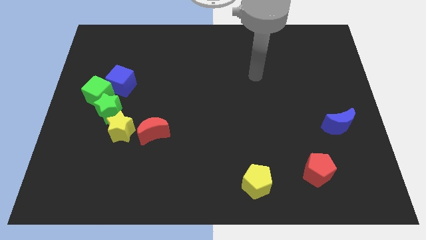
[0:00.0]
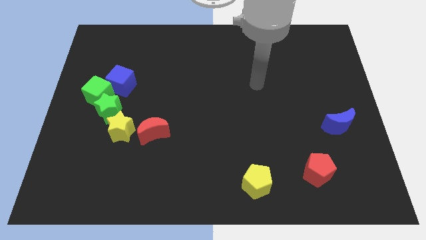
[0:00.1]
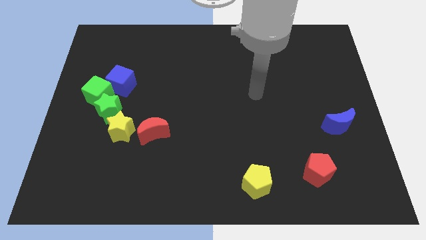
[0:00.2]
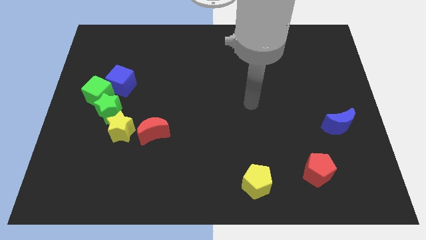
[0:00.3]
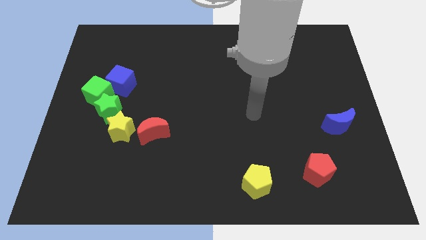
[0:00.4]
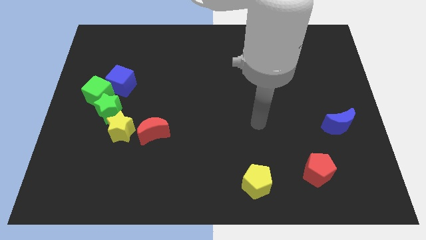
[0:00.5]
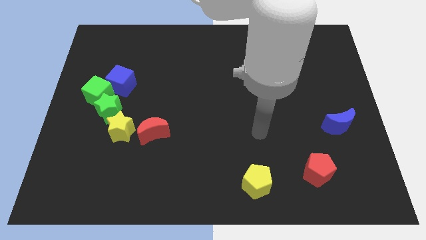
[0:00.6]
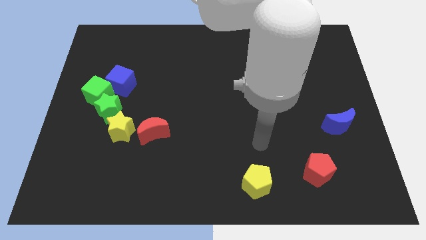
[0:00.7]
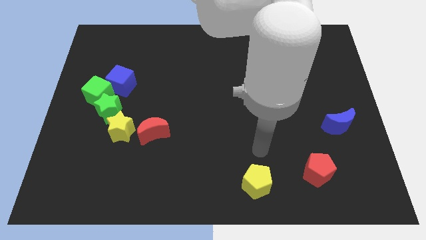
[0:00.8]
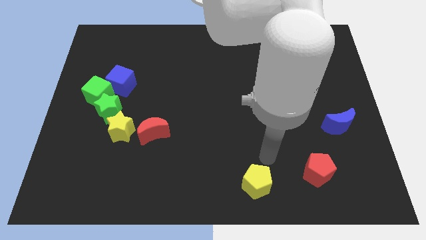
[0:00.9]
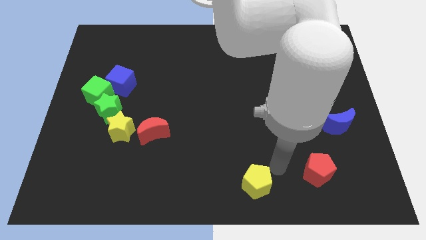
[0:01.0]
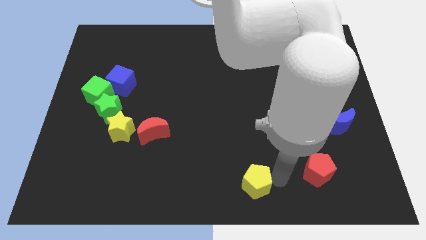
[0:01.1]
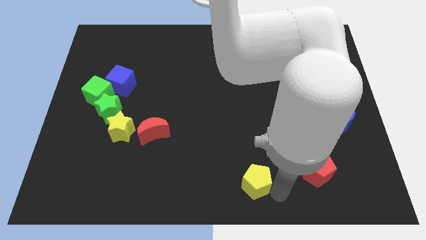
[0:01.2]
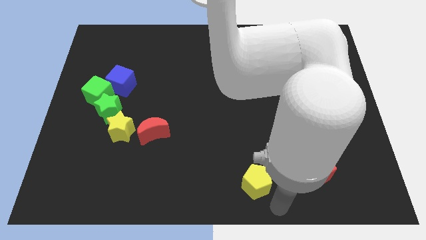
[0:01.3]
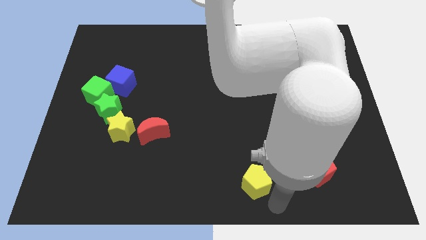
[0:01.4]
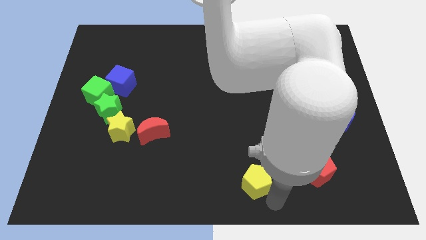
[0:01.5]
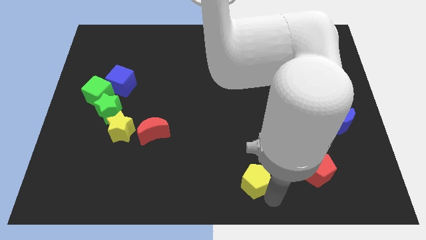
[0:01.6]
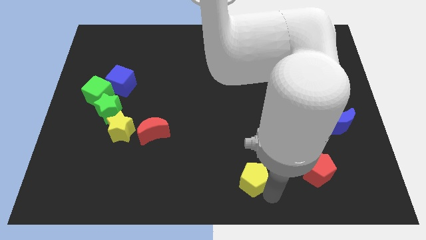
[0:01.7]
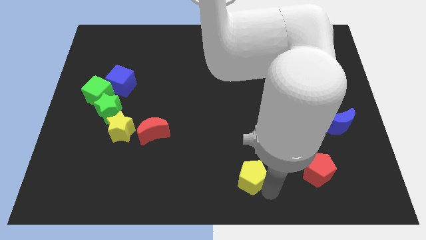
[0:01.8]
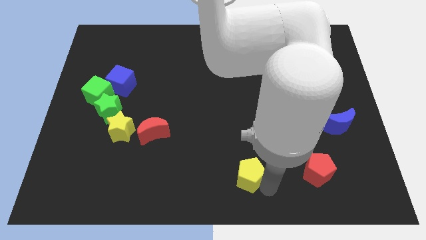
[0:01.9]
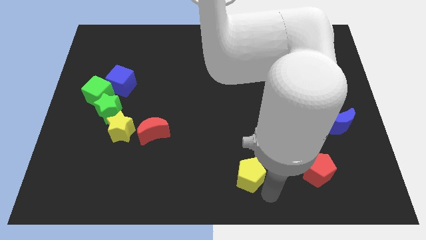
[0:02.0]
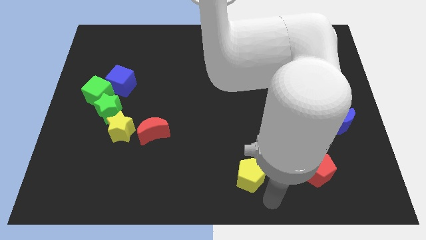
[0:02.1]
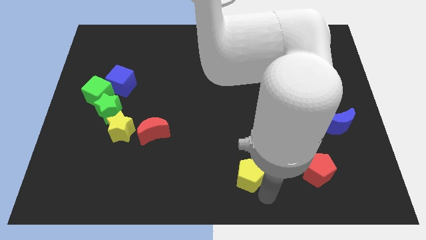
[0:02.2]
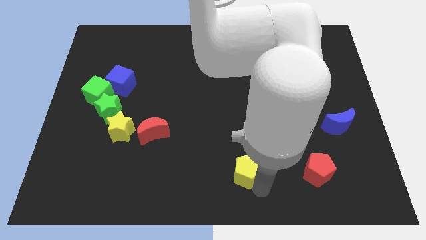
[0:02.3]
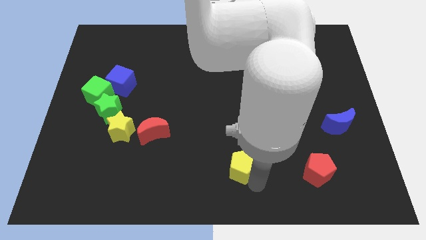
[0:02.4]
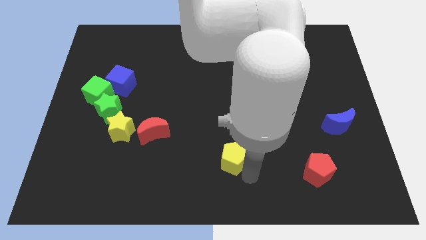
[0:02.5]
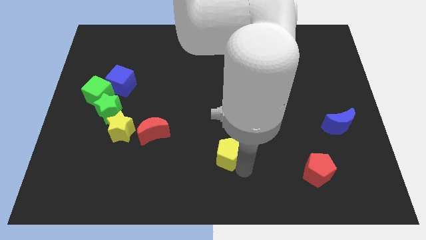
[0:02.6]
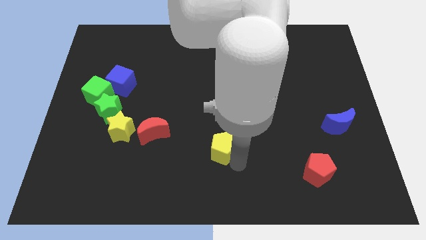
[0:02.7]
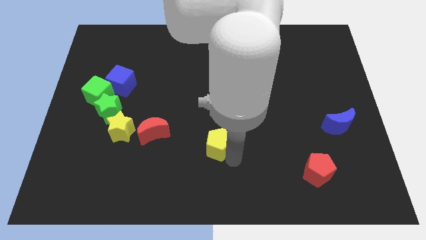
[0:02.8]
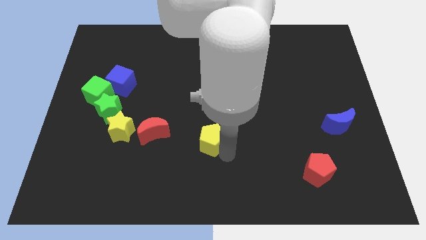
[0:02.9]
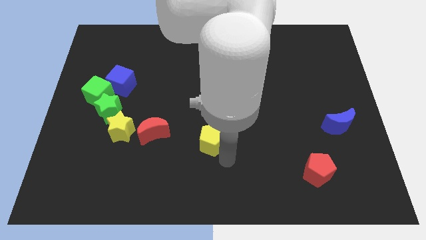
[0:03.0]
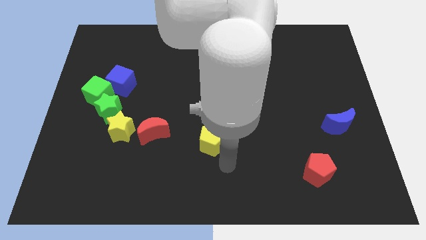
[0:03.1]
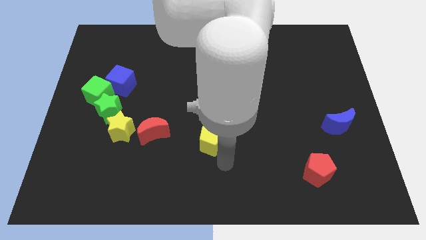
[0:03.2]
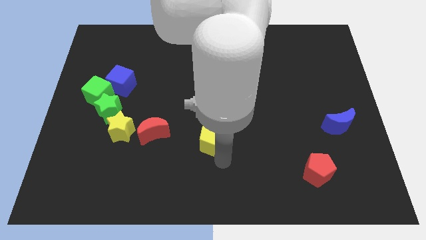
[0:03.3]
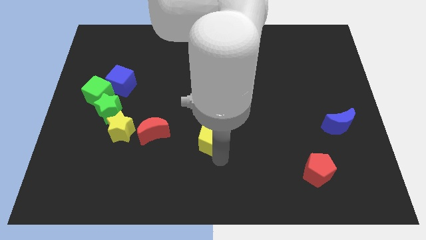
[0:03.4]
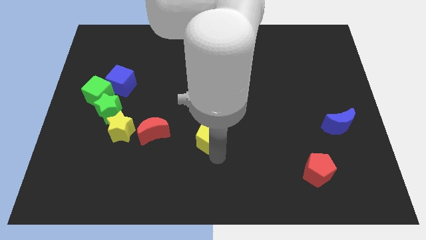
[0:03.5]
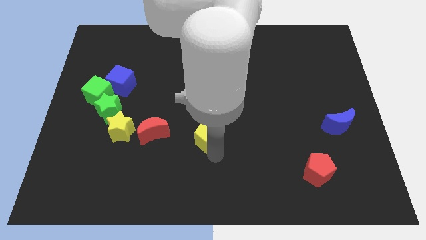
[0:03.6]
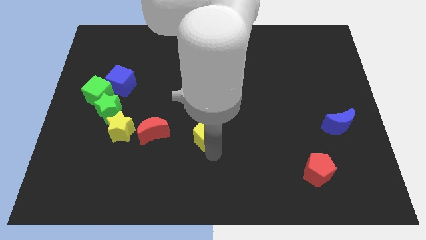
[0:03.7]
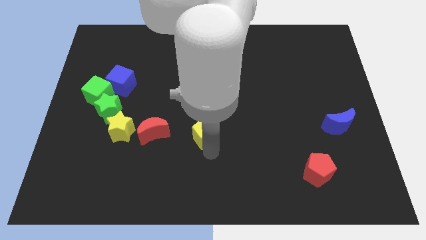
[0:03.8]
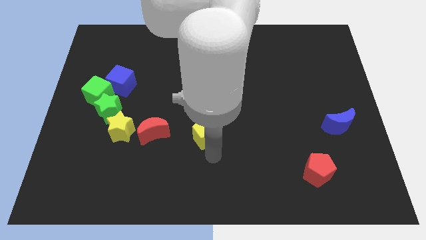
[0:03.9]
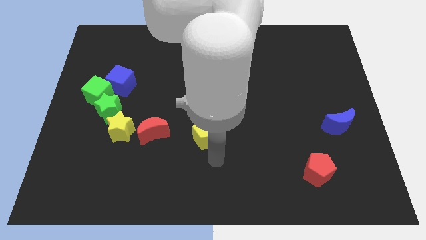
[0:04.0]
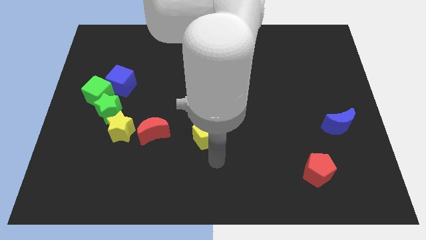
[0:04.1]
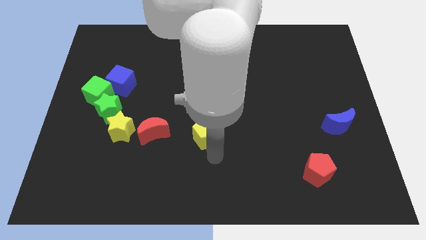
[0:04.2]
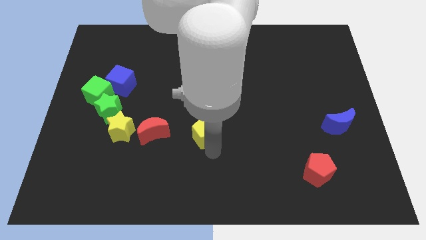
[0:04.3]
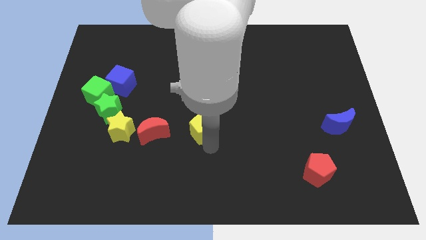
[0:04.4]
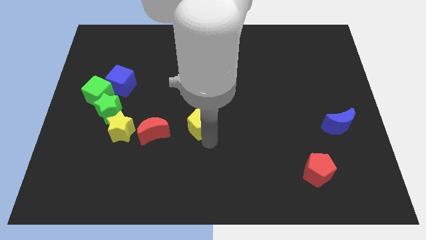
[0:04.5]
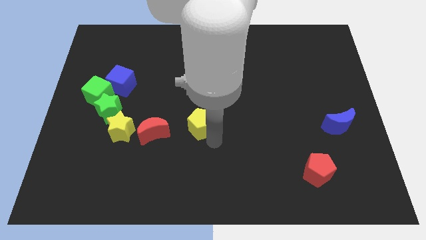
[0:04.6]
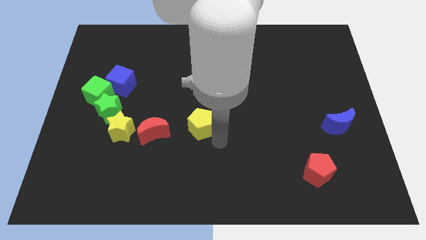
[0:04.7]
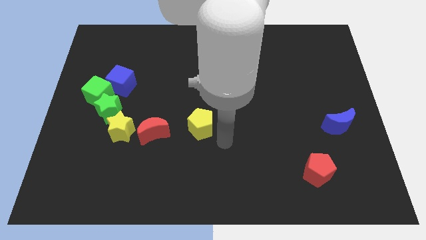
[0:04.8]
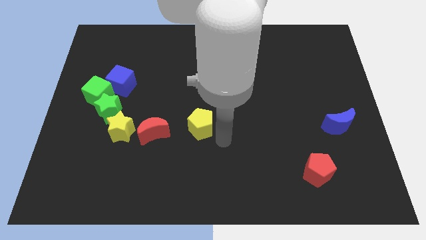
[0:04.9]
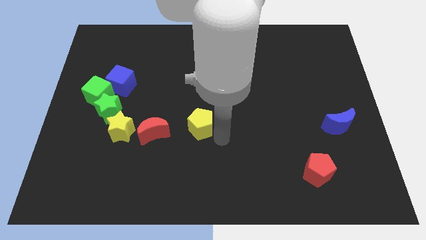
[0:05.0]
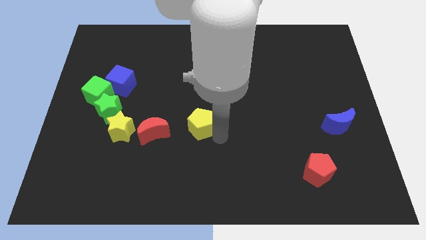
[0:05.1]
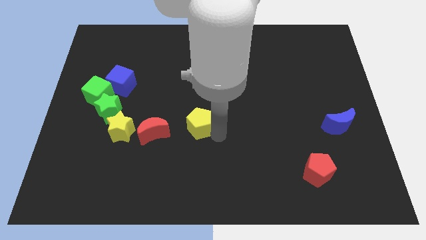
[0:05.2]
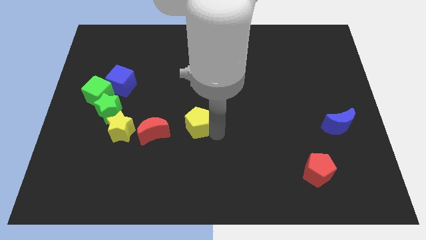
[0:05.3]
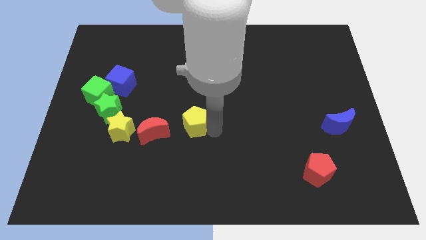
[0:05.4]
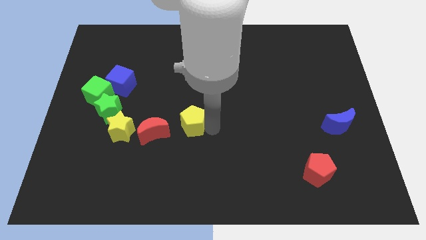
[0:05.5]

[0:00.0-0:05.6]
push the yellow pentagon up and to the left diagonally

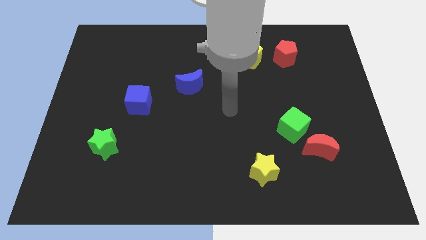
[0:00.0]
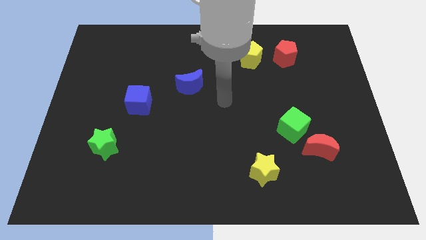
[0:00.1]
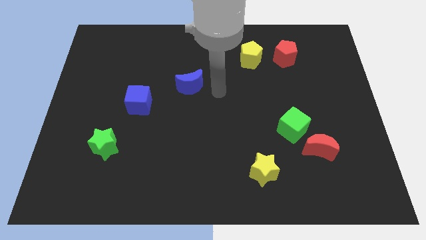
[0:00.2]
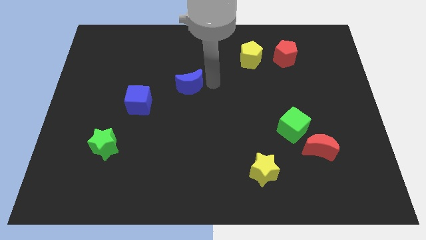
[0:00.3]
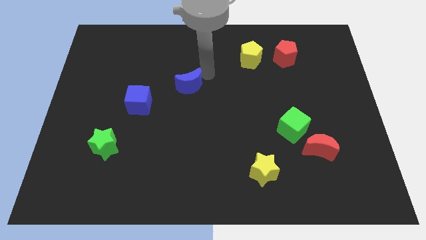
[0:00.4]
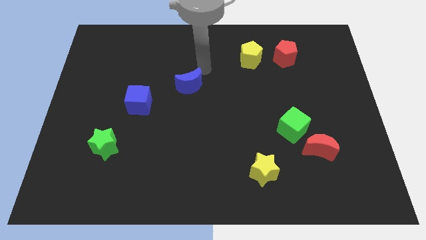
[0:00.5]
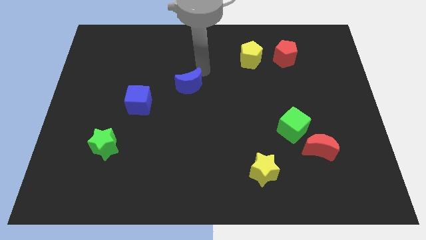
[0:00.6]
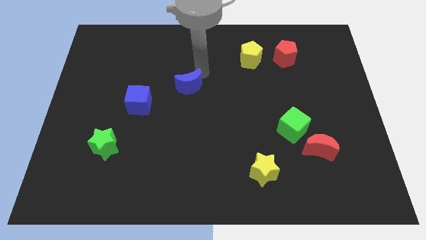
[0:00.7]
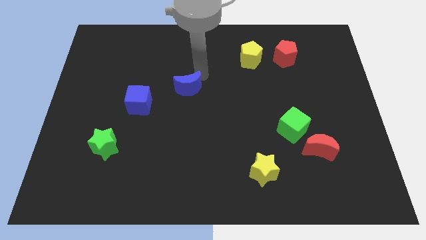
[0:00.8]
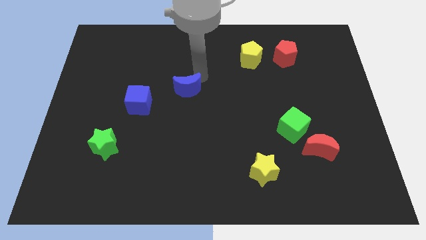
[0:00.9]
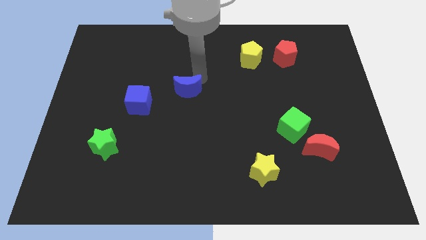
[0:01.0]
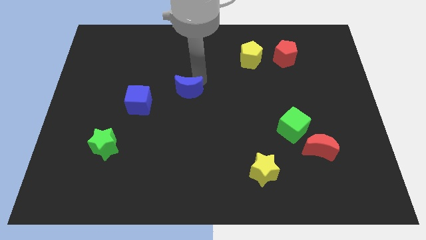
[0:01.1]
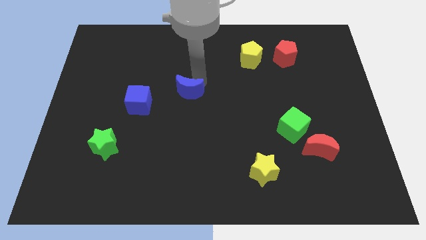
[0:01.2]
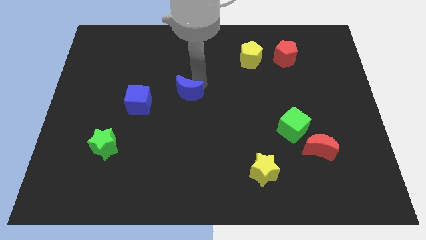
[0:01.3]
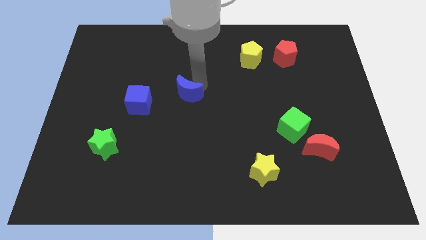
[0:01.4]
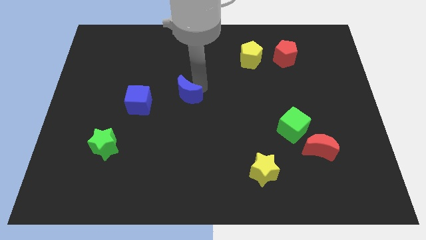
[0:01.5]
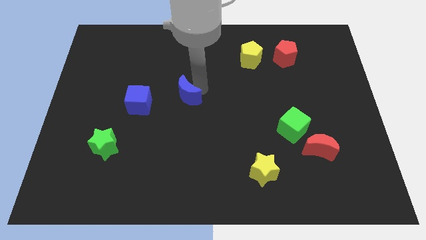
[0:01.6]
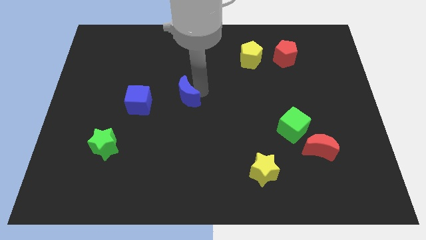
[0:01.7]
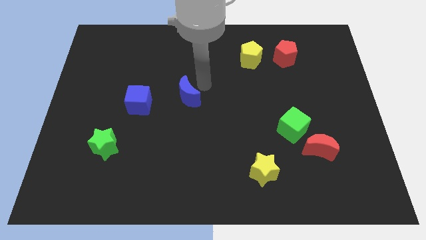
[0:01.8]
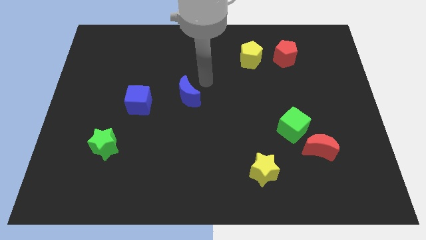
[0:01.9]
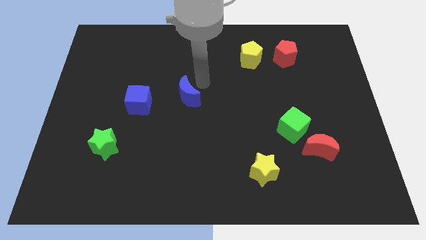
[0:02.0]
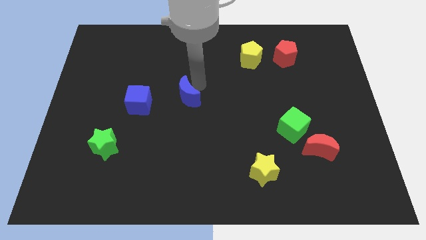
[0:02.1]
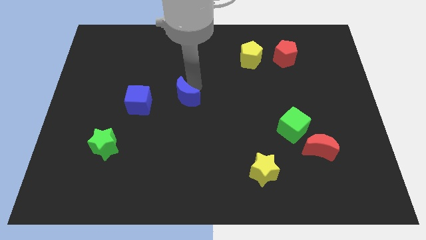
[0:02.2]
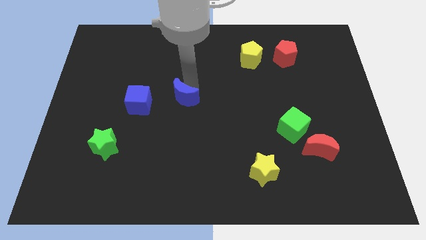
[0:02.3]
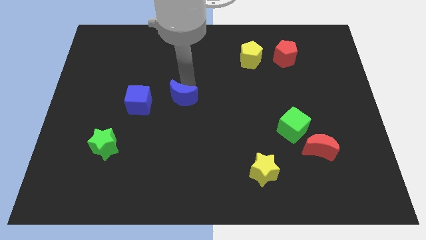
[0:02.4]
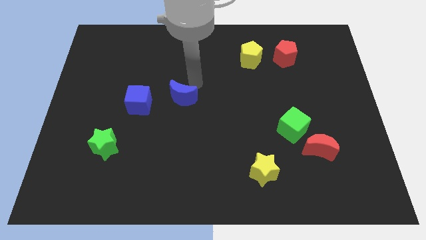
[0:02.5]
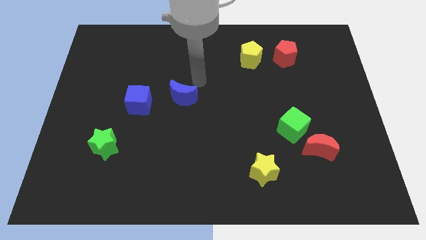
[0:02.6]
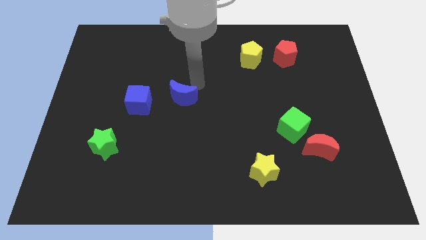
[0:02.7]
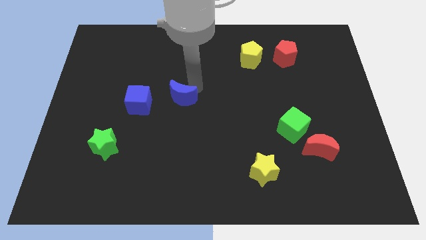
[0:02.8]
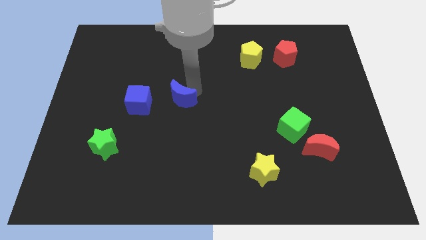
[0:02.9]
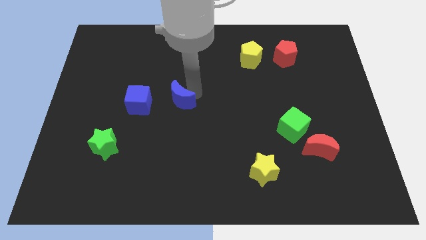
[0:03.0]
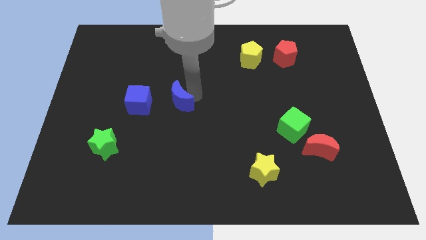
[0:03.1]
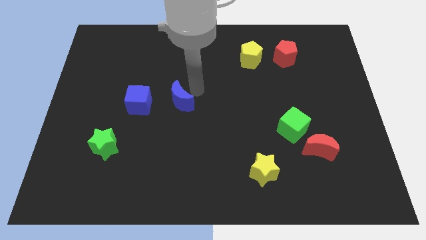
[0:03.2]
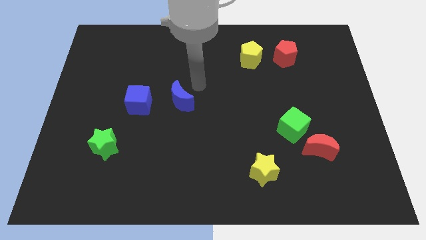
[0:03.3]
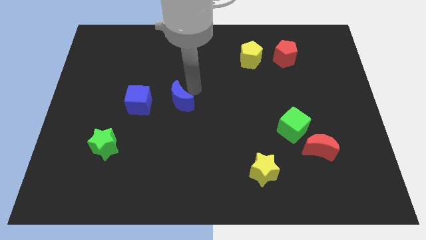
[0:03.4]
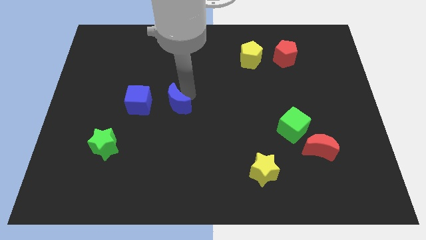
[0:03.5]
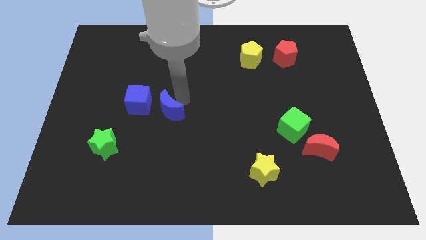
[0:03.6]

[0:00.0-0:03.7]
push the blue moon a little bit down and then left
